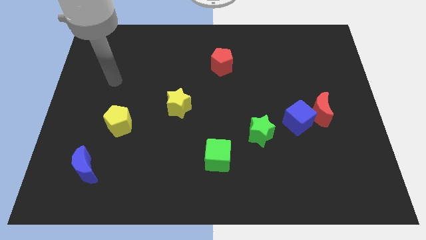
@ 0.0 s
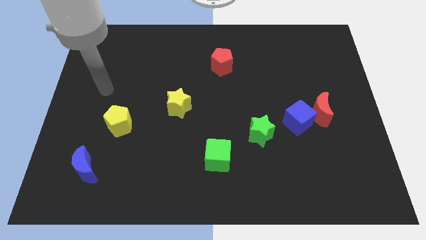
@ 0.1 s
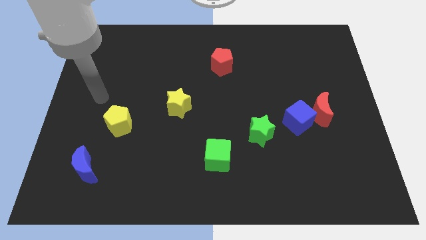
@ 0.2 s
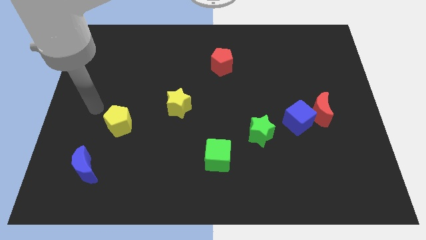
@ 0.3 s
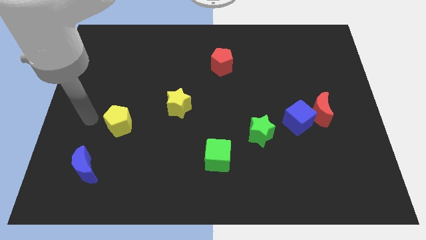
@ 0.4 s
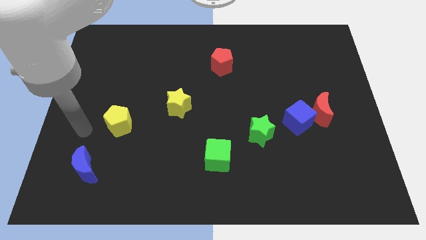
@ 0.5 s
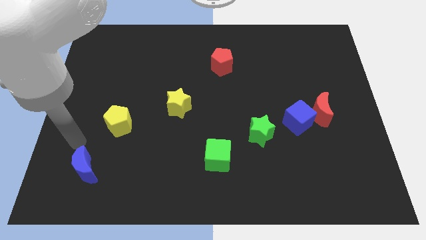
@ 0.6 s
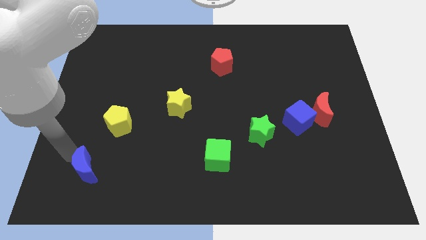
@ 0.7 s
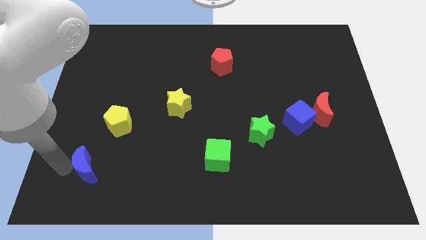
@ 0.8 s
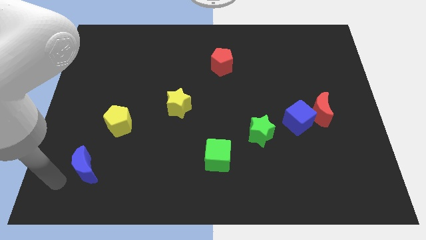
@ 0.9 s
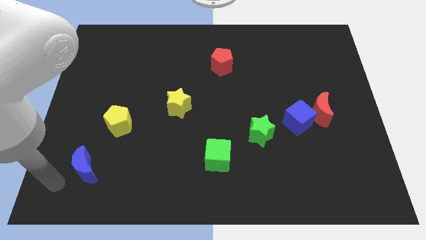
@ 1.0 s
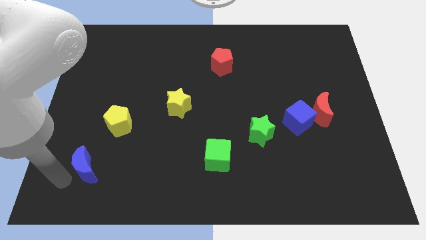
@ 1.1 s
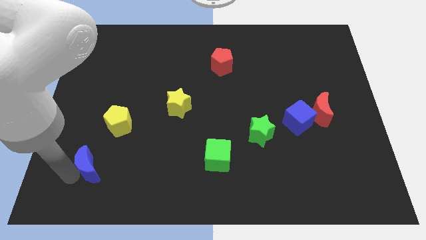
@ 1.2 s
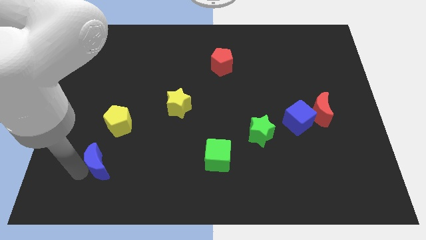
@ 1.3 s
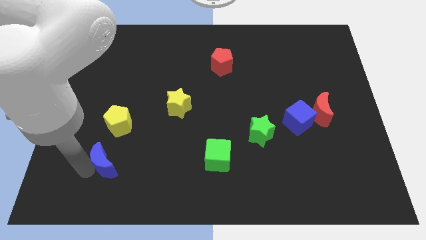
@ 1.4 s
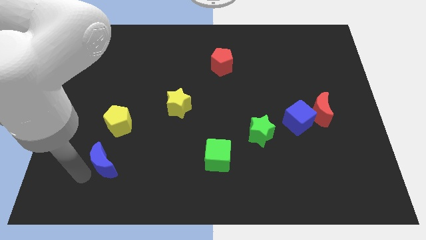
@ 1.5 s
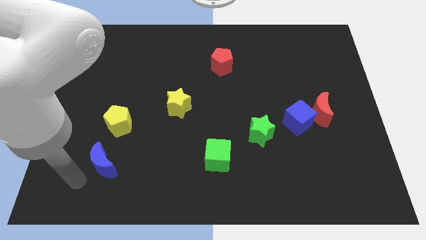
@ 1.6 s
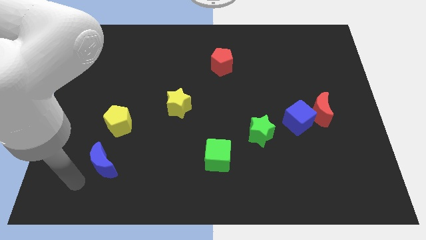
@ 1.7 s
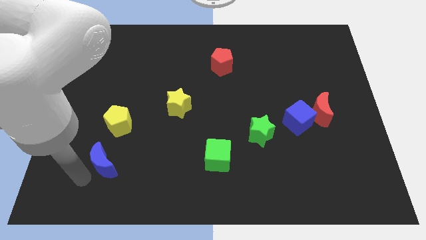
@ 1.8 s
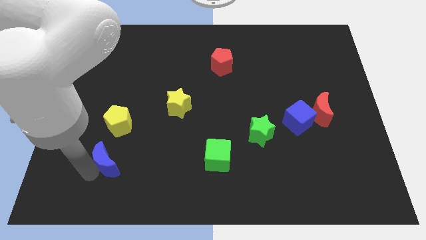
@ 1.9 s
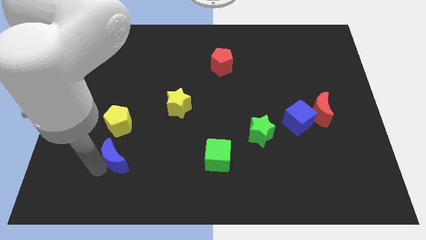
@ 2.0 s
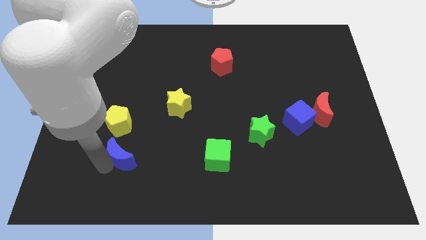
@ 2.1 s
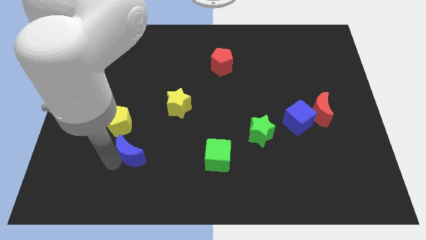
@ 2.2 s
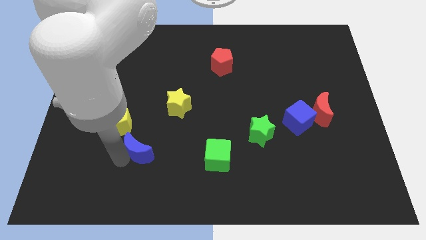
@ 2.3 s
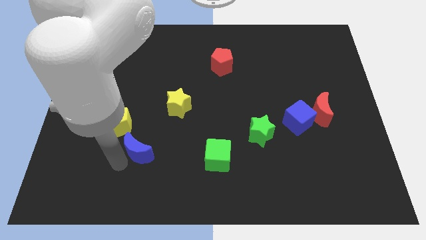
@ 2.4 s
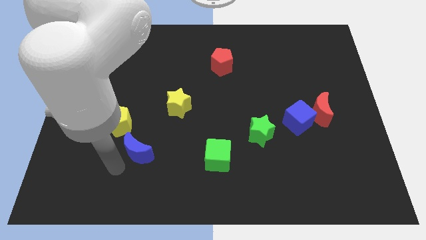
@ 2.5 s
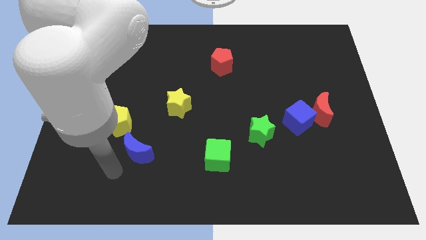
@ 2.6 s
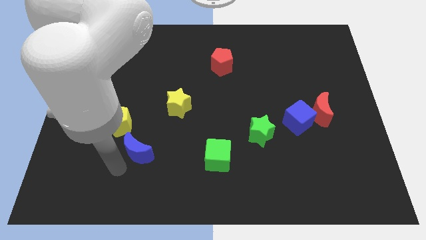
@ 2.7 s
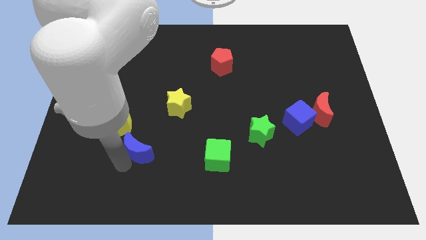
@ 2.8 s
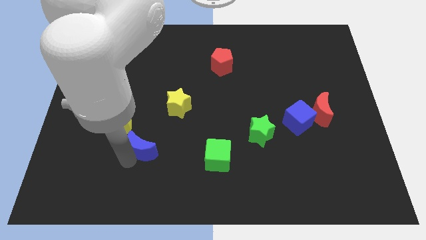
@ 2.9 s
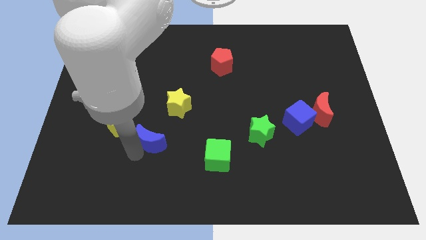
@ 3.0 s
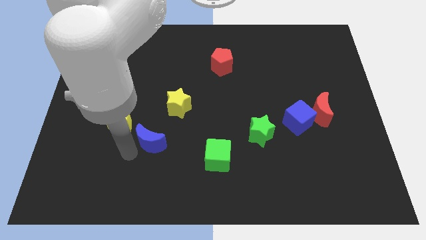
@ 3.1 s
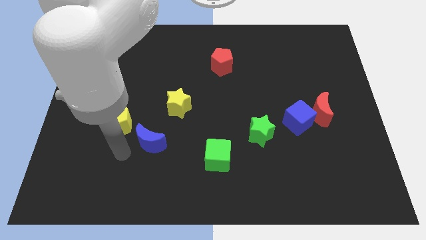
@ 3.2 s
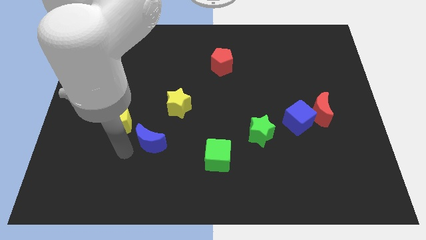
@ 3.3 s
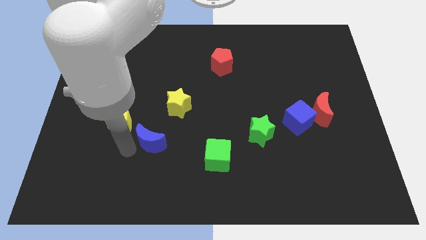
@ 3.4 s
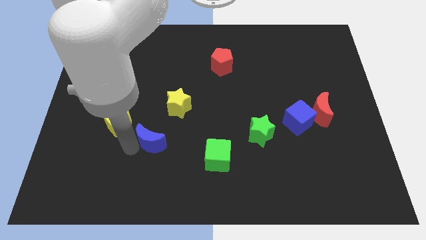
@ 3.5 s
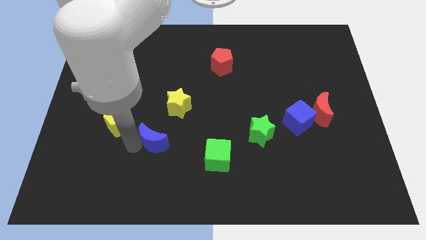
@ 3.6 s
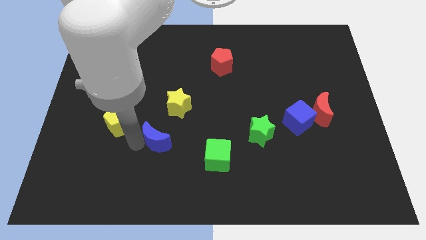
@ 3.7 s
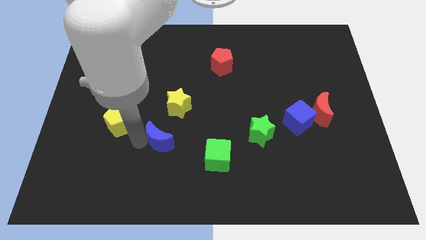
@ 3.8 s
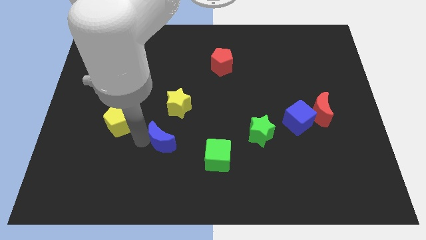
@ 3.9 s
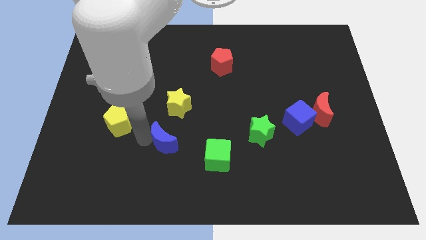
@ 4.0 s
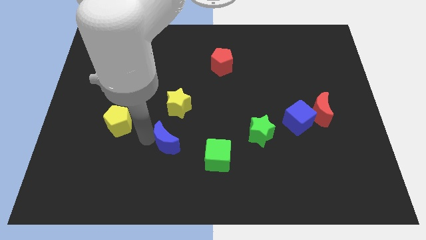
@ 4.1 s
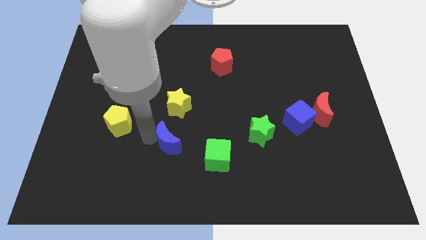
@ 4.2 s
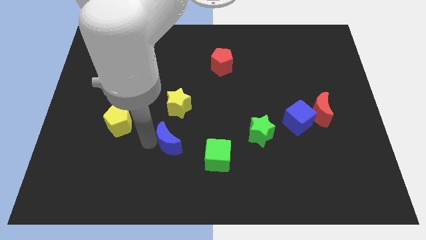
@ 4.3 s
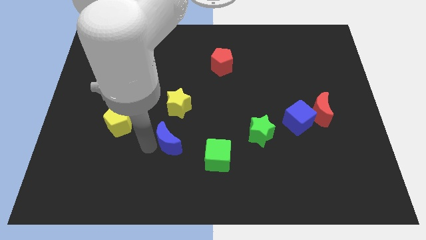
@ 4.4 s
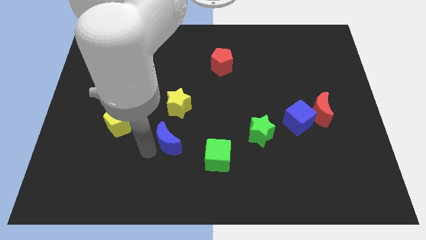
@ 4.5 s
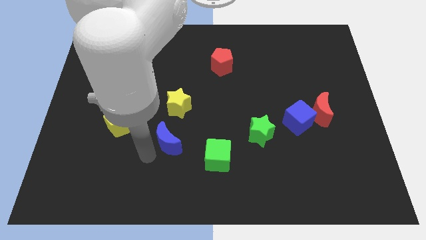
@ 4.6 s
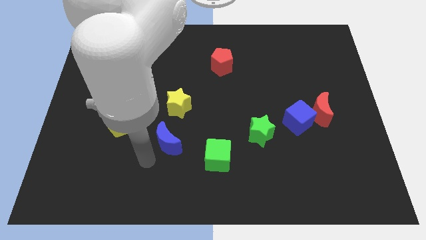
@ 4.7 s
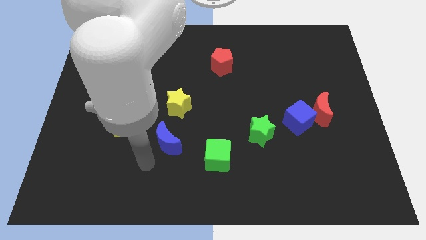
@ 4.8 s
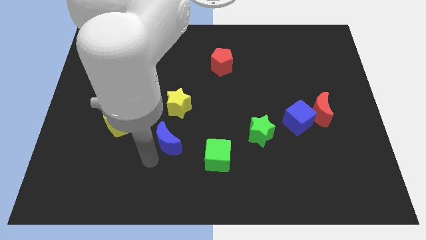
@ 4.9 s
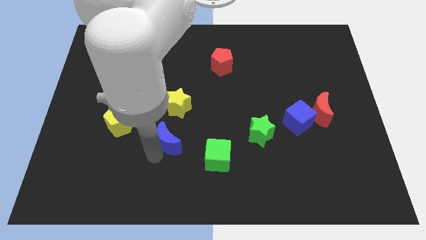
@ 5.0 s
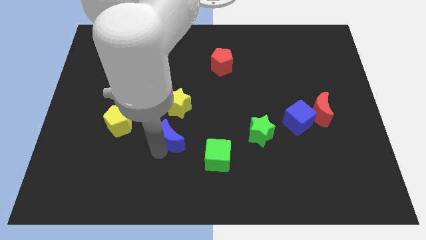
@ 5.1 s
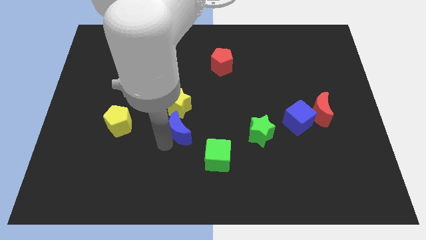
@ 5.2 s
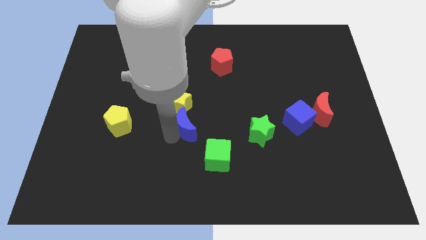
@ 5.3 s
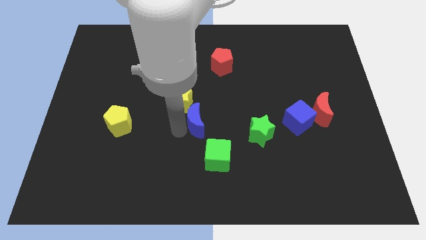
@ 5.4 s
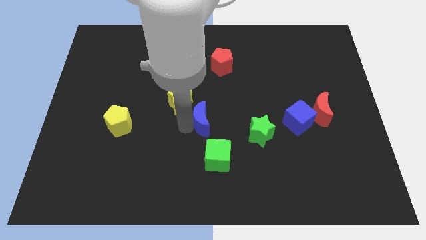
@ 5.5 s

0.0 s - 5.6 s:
slide the blue moon above the green cube
